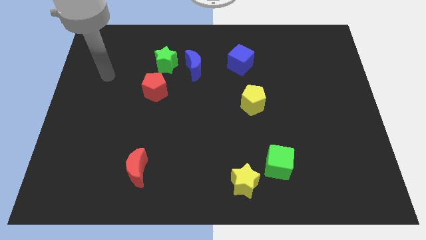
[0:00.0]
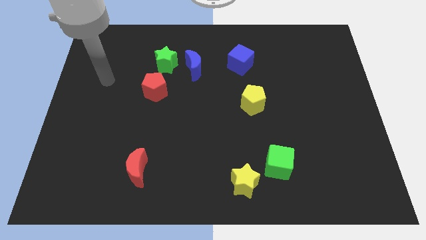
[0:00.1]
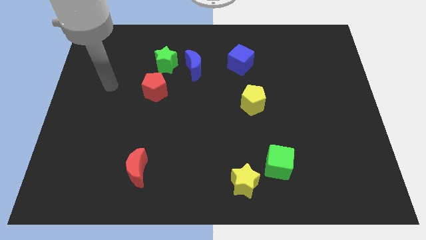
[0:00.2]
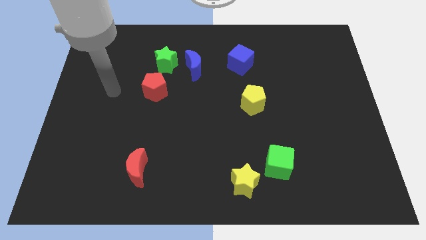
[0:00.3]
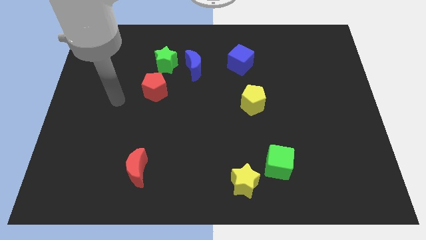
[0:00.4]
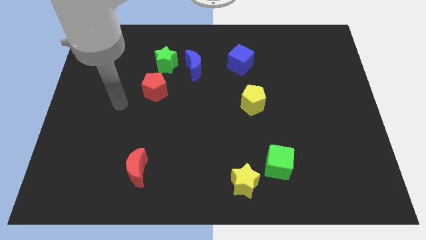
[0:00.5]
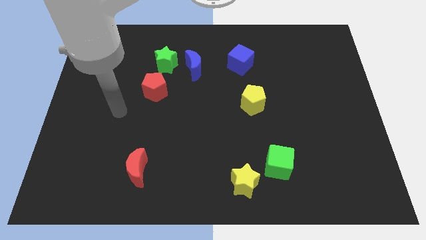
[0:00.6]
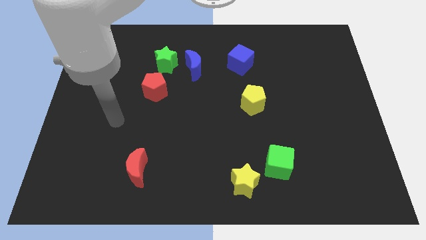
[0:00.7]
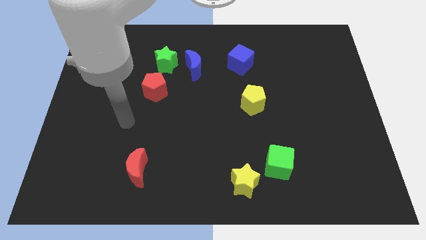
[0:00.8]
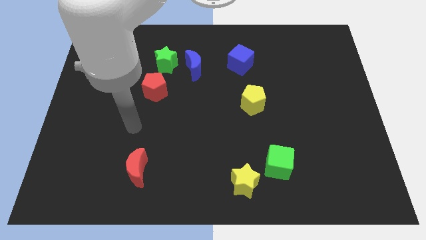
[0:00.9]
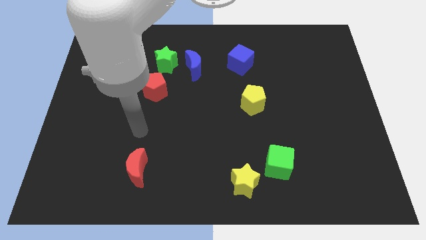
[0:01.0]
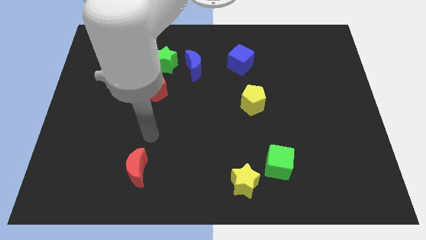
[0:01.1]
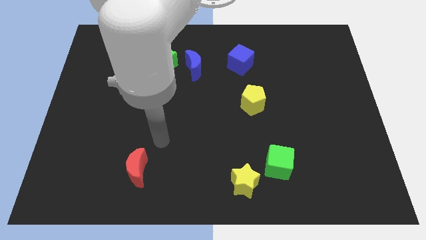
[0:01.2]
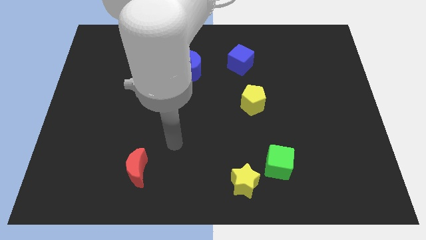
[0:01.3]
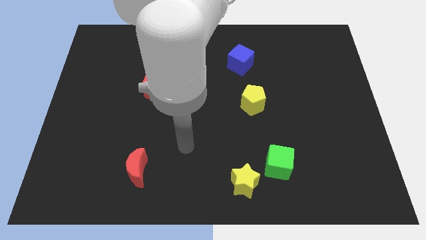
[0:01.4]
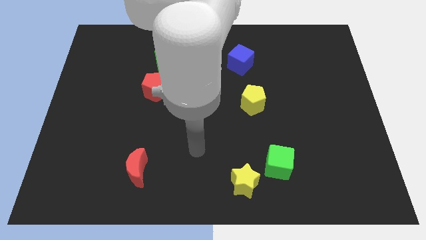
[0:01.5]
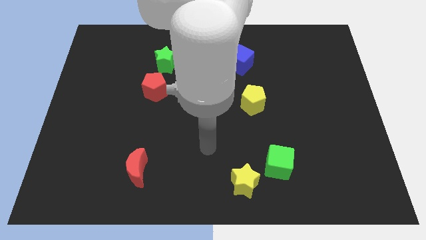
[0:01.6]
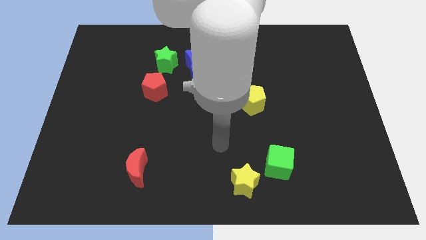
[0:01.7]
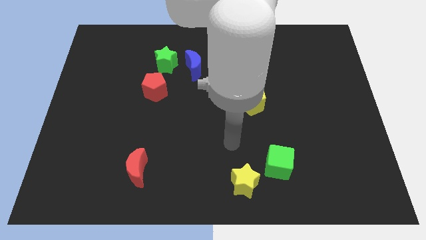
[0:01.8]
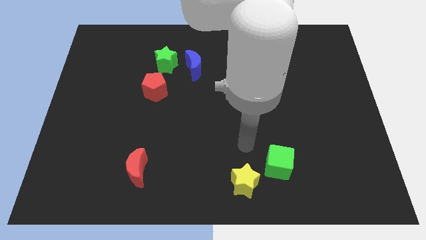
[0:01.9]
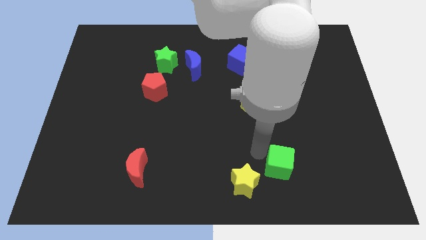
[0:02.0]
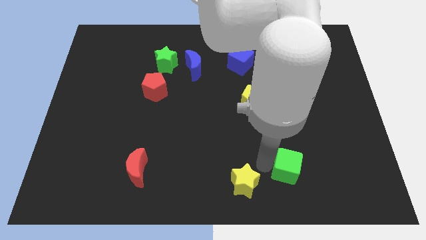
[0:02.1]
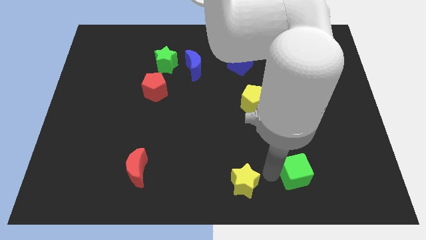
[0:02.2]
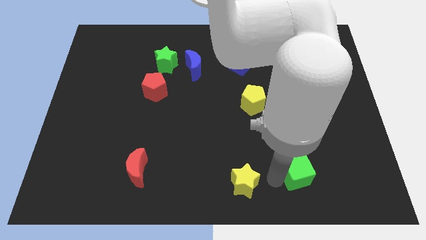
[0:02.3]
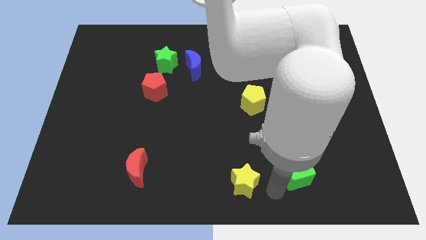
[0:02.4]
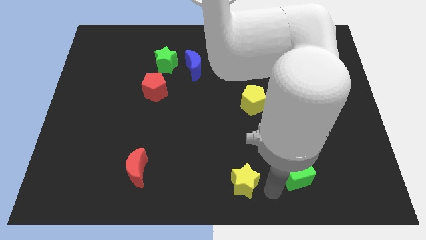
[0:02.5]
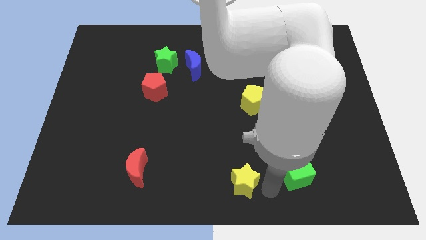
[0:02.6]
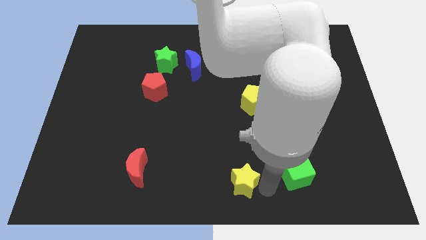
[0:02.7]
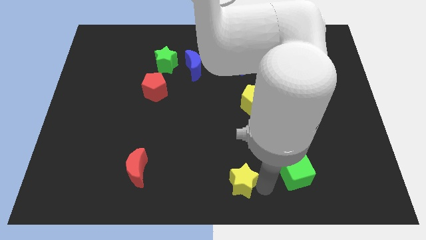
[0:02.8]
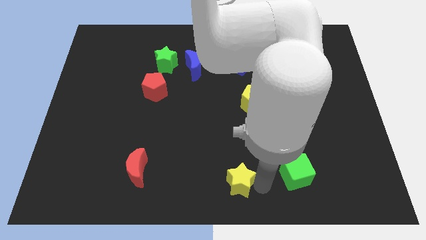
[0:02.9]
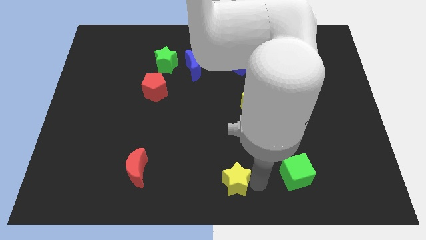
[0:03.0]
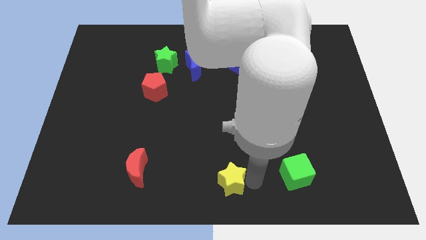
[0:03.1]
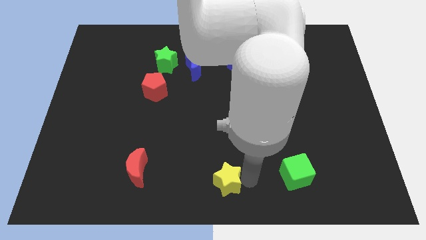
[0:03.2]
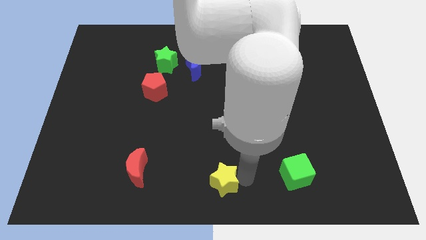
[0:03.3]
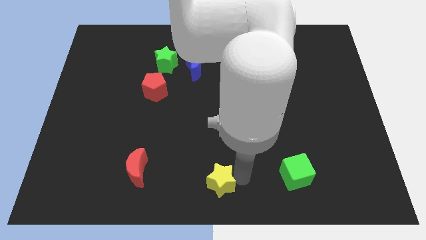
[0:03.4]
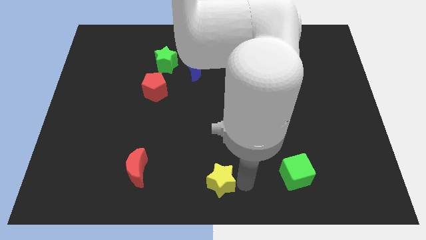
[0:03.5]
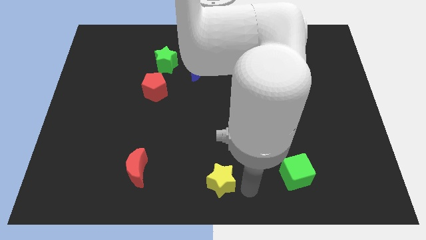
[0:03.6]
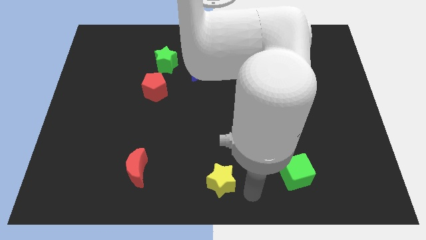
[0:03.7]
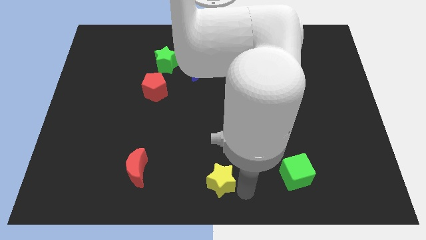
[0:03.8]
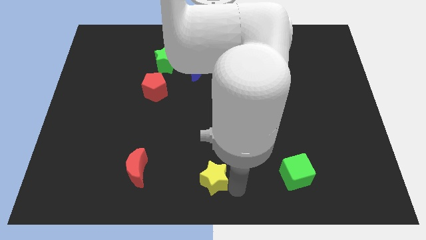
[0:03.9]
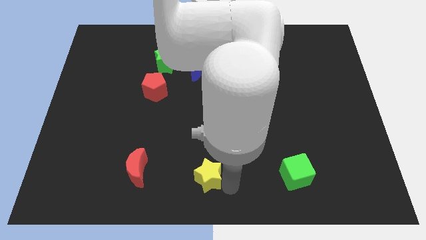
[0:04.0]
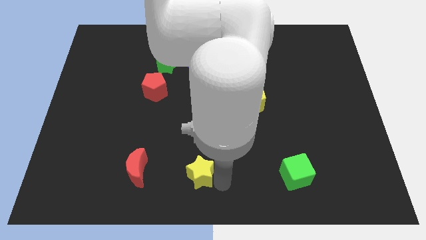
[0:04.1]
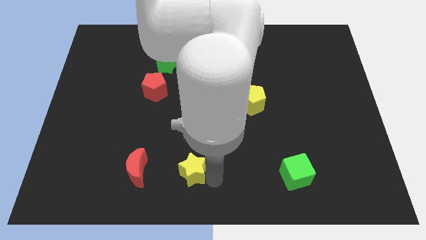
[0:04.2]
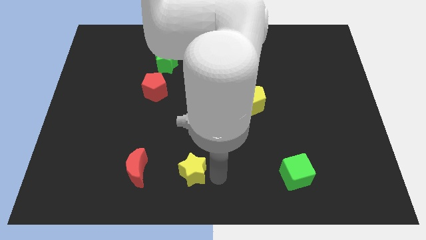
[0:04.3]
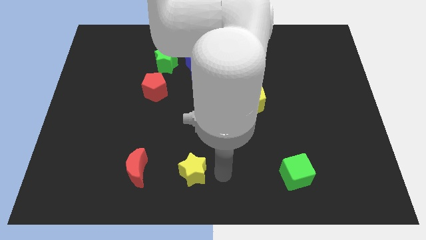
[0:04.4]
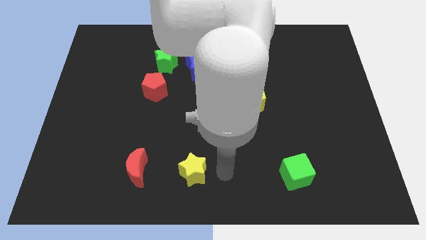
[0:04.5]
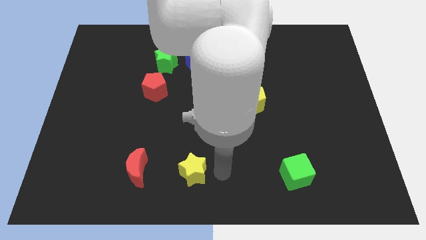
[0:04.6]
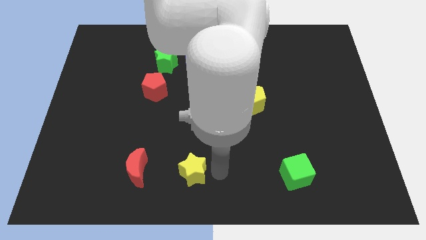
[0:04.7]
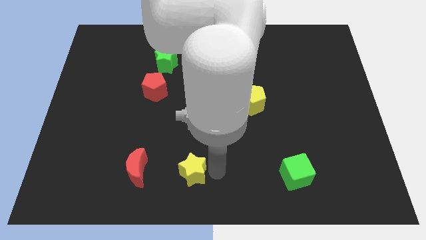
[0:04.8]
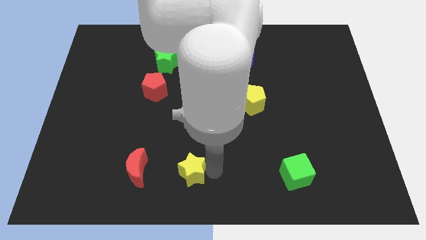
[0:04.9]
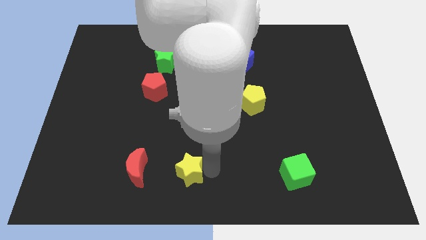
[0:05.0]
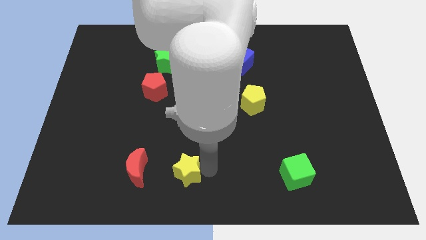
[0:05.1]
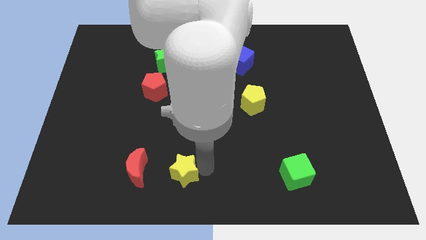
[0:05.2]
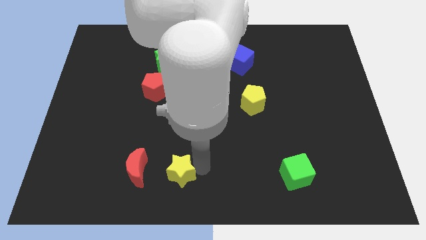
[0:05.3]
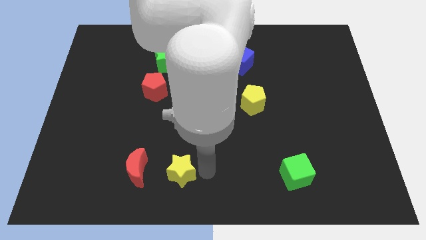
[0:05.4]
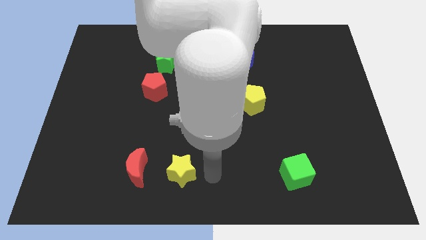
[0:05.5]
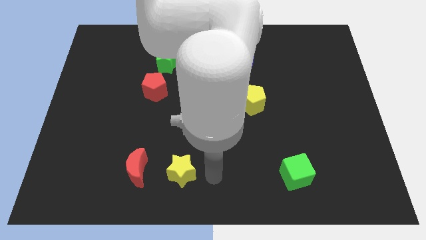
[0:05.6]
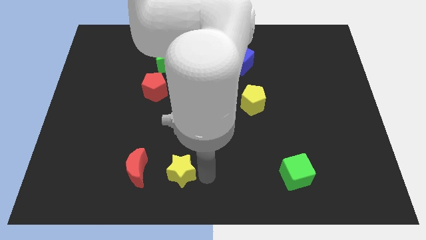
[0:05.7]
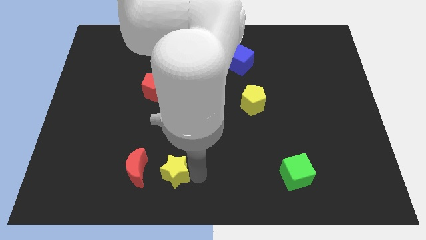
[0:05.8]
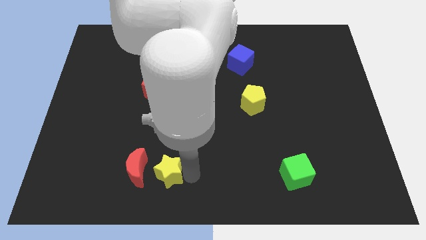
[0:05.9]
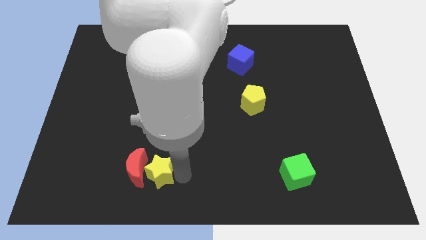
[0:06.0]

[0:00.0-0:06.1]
put the yellow star towards the red moon
